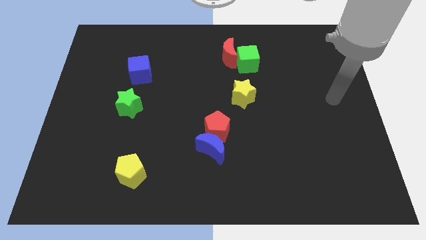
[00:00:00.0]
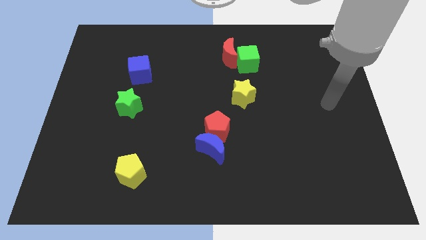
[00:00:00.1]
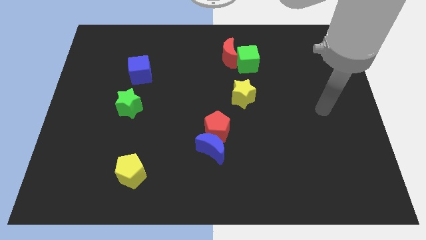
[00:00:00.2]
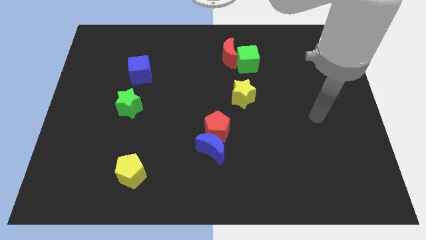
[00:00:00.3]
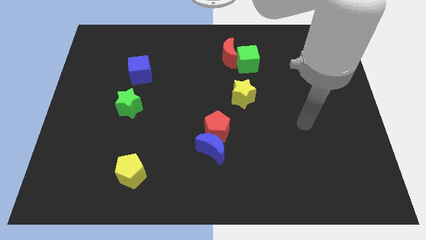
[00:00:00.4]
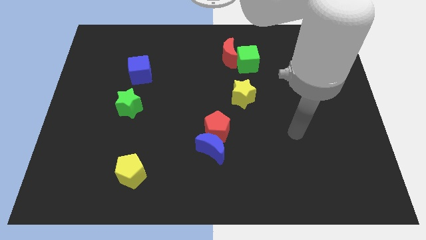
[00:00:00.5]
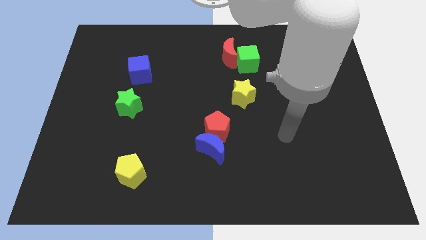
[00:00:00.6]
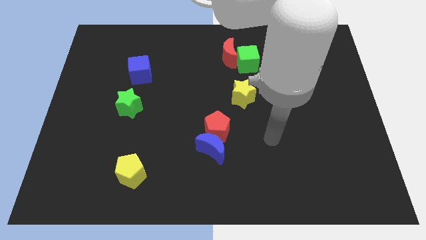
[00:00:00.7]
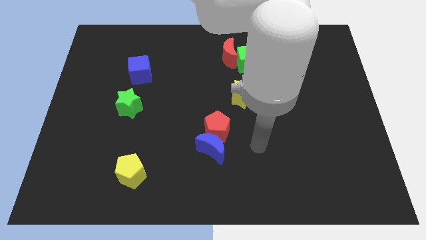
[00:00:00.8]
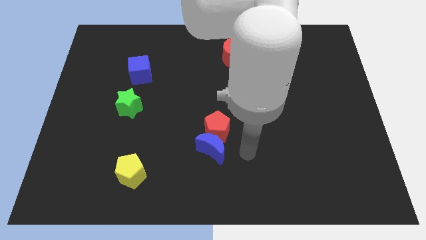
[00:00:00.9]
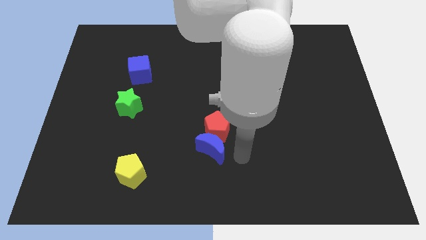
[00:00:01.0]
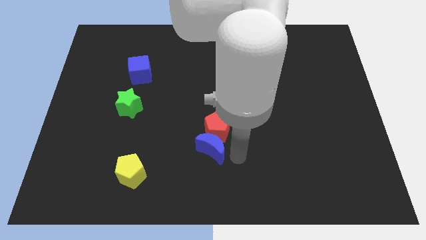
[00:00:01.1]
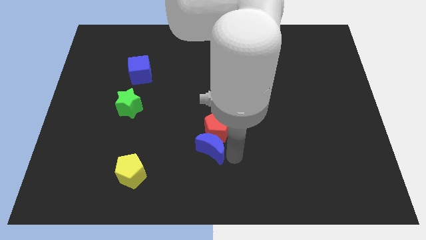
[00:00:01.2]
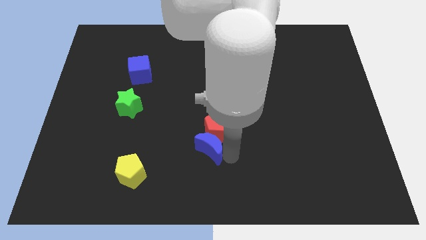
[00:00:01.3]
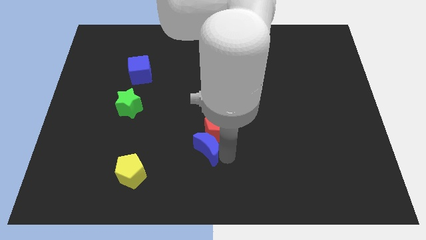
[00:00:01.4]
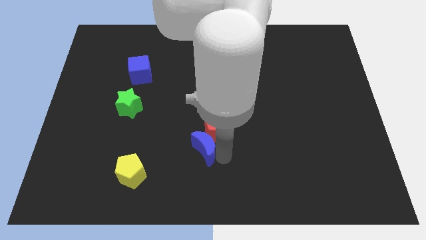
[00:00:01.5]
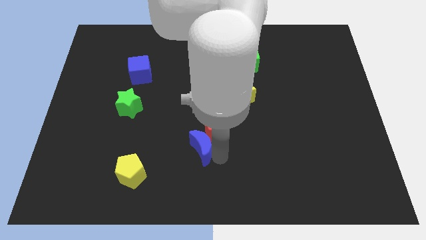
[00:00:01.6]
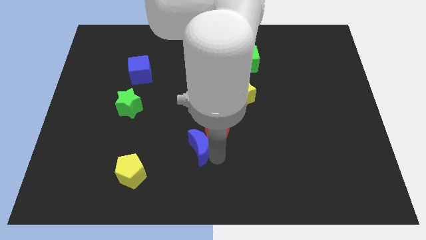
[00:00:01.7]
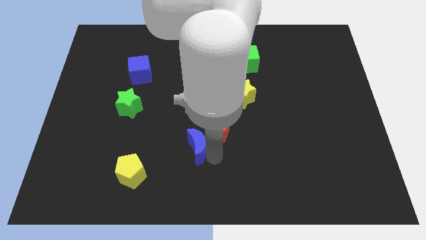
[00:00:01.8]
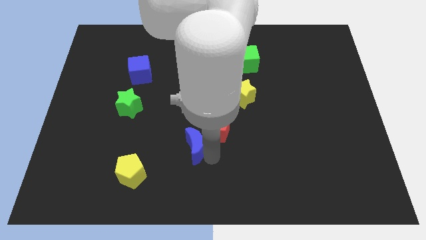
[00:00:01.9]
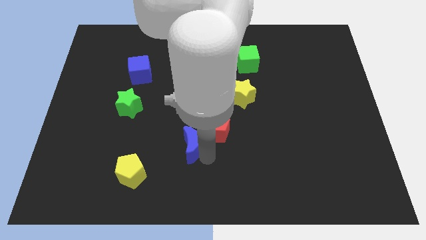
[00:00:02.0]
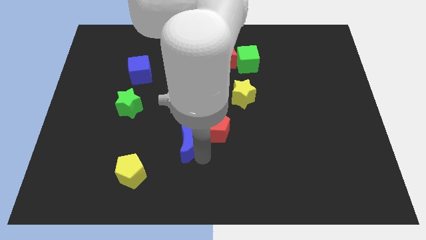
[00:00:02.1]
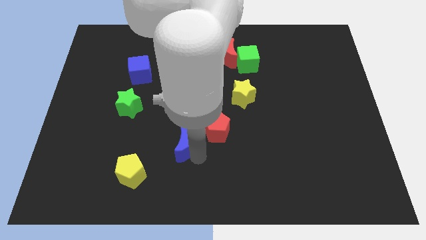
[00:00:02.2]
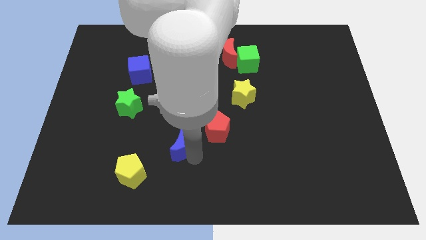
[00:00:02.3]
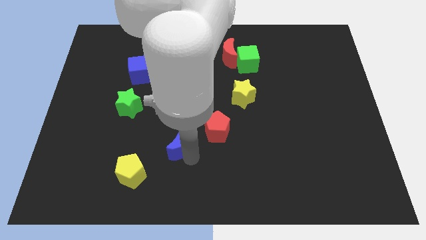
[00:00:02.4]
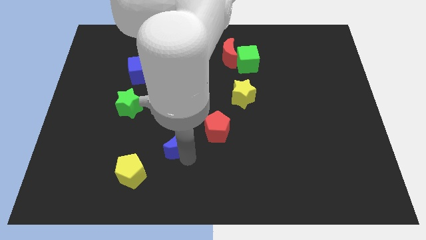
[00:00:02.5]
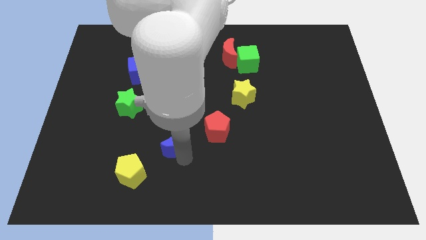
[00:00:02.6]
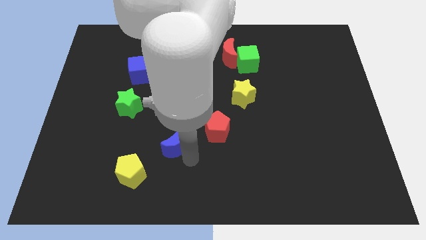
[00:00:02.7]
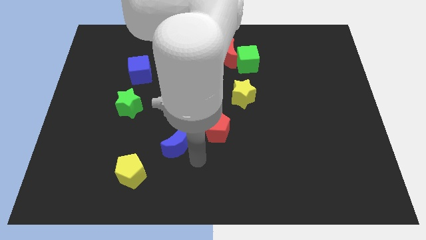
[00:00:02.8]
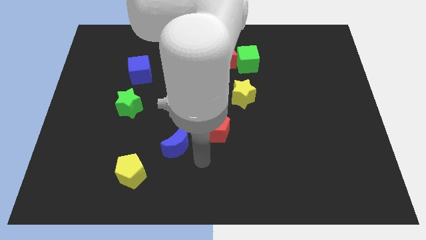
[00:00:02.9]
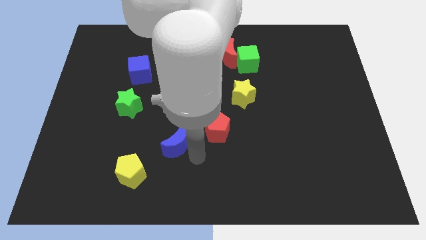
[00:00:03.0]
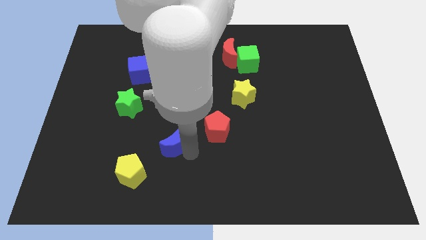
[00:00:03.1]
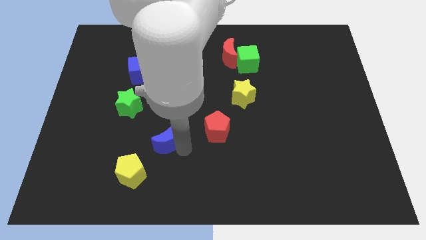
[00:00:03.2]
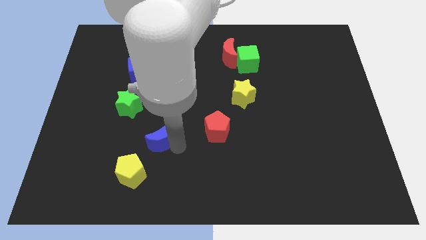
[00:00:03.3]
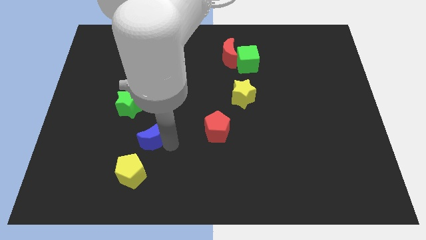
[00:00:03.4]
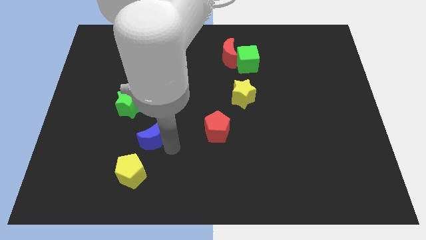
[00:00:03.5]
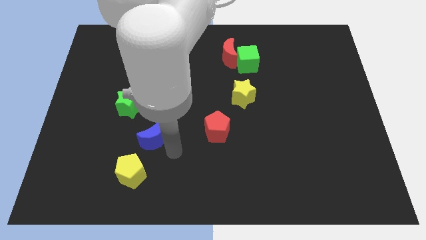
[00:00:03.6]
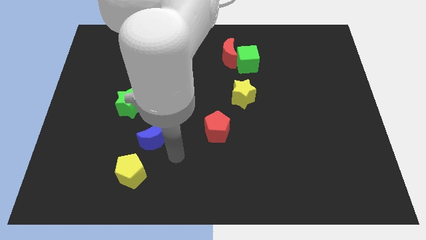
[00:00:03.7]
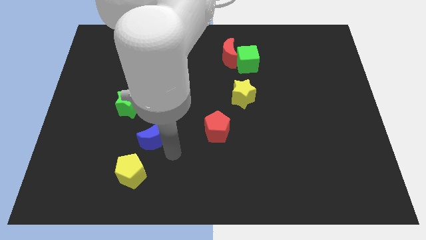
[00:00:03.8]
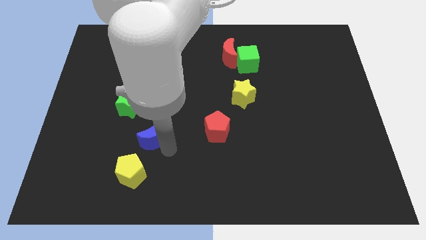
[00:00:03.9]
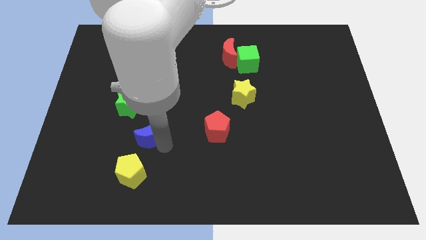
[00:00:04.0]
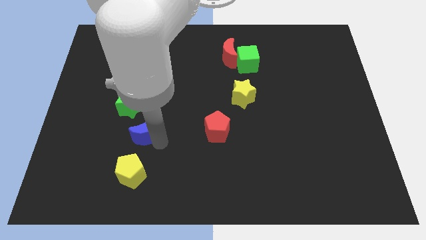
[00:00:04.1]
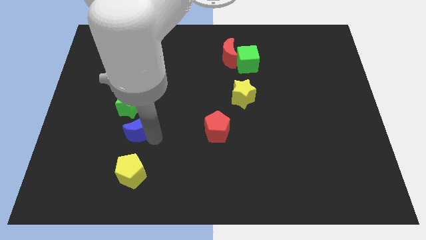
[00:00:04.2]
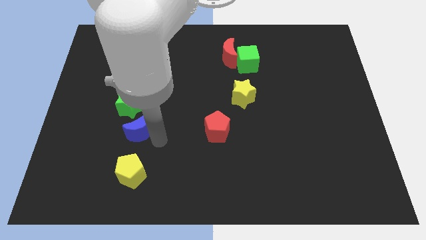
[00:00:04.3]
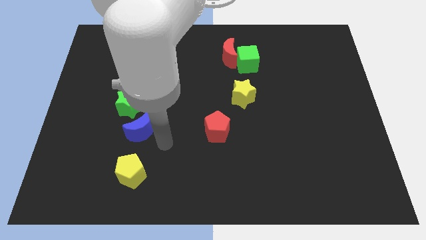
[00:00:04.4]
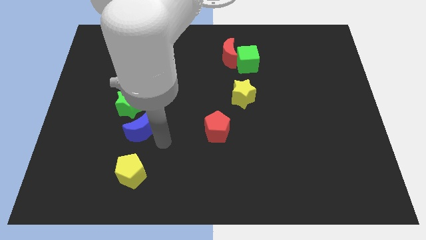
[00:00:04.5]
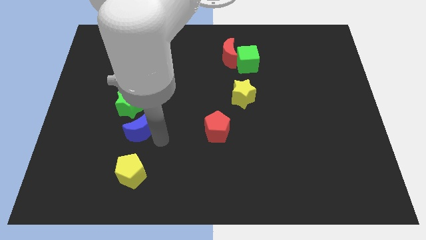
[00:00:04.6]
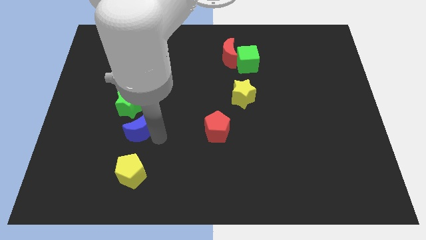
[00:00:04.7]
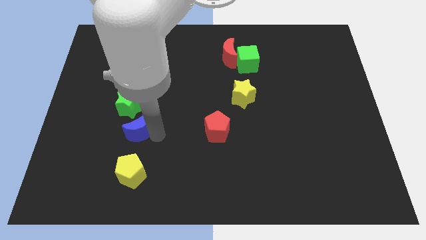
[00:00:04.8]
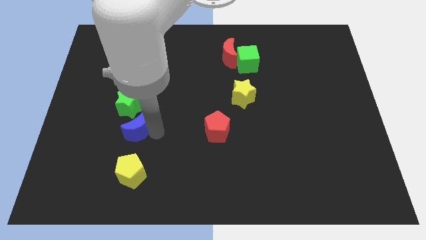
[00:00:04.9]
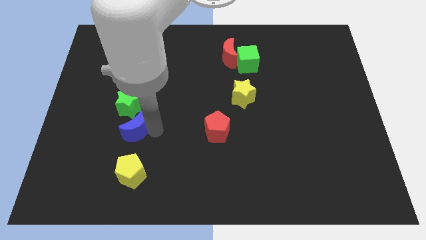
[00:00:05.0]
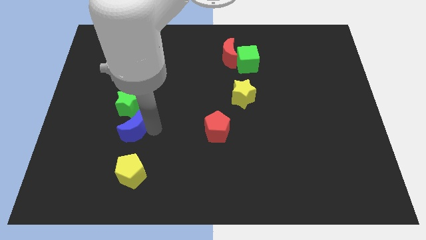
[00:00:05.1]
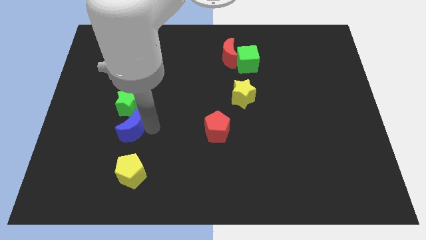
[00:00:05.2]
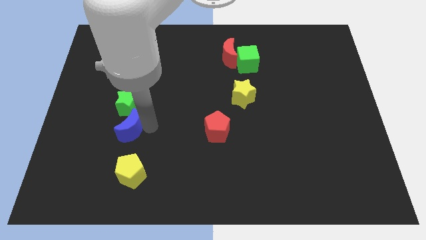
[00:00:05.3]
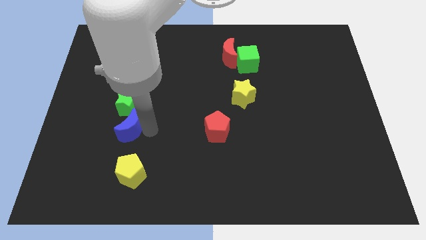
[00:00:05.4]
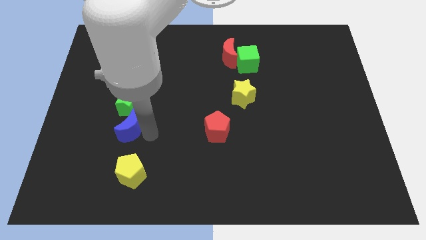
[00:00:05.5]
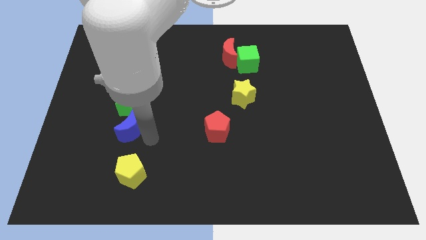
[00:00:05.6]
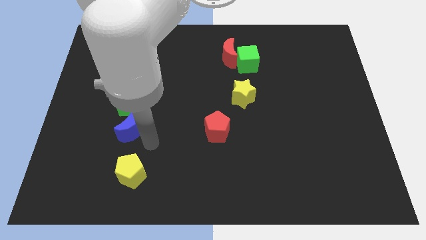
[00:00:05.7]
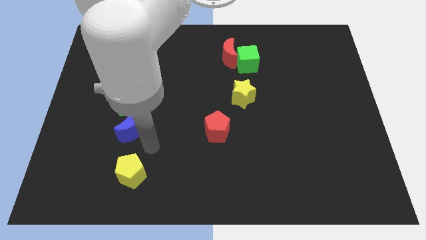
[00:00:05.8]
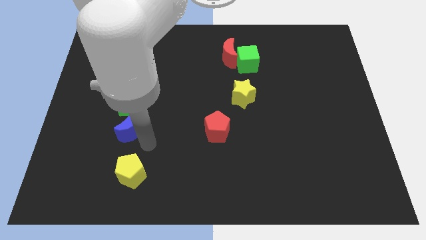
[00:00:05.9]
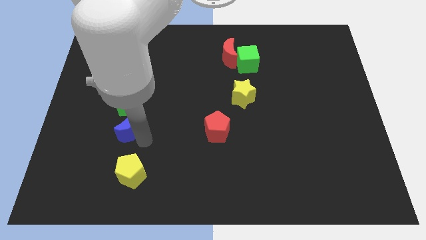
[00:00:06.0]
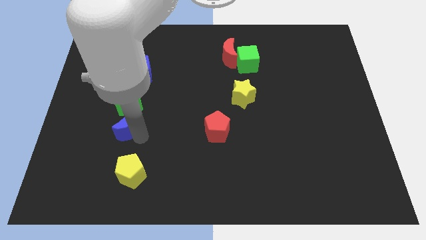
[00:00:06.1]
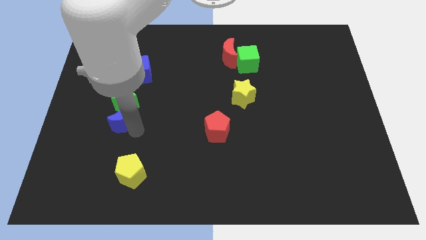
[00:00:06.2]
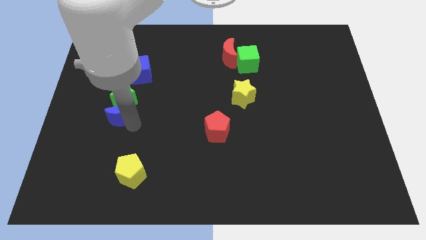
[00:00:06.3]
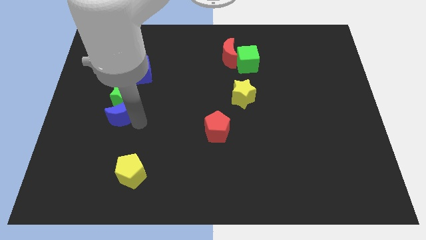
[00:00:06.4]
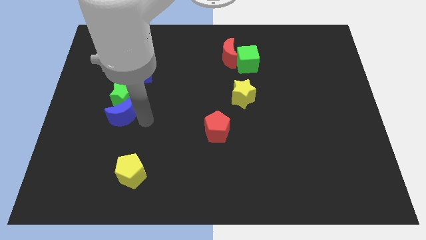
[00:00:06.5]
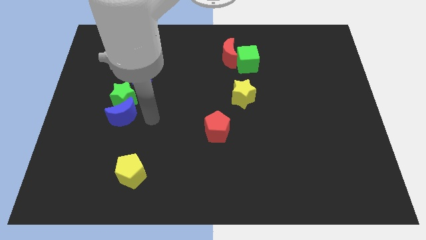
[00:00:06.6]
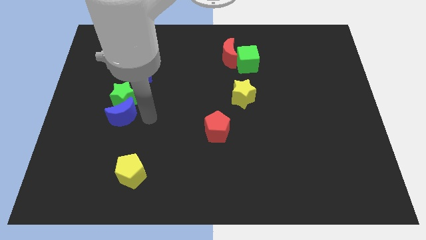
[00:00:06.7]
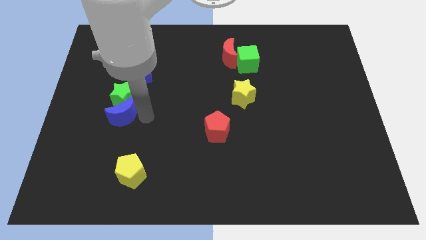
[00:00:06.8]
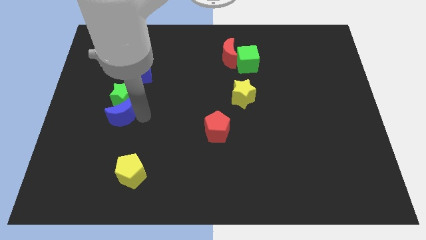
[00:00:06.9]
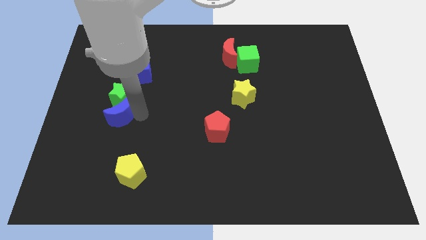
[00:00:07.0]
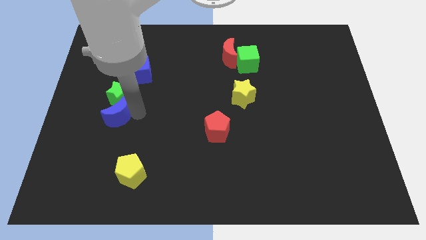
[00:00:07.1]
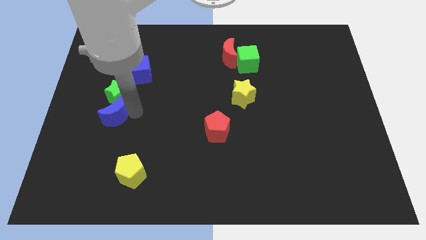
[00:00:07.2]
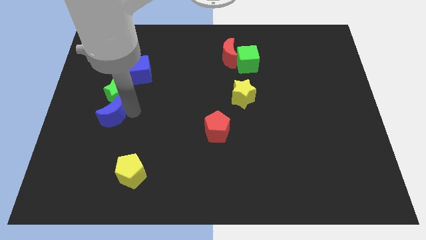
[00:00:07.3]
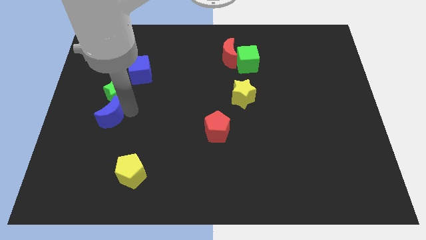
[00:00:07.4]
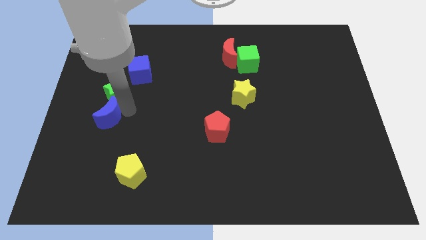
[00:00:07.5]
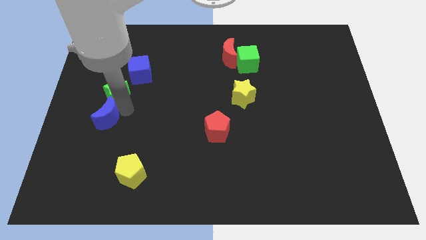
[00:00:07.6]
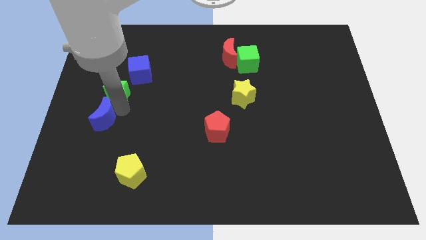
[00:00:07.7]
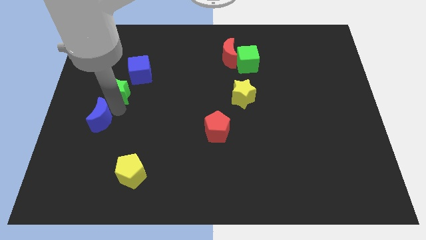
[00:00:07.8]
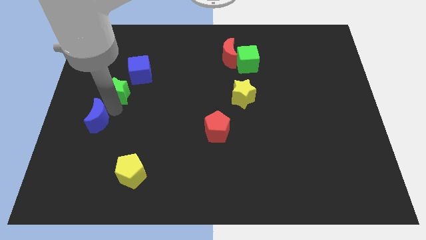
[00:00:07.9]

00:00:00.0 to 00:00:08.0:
push the blue moon to the left side
